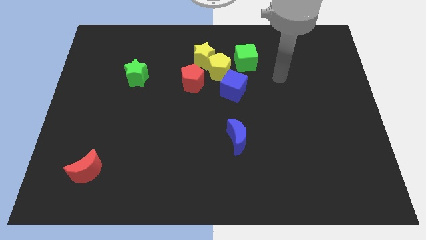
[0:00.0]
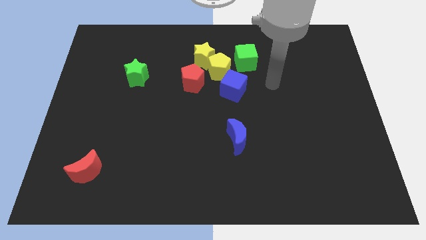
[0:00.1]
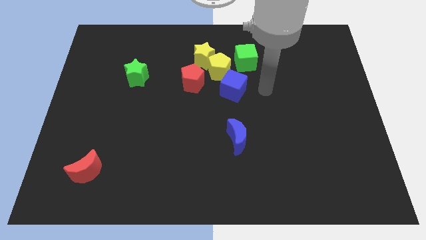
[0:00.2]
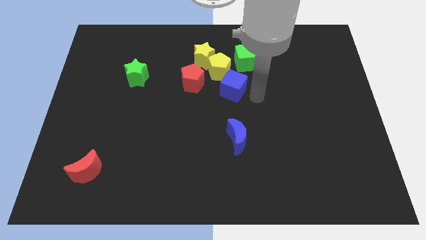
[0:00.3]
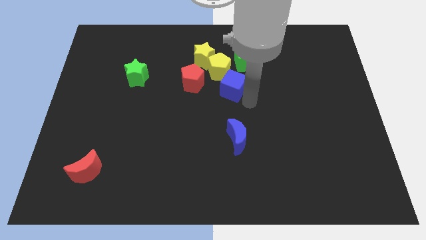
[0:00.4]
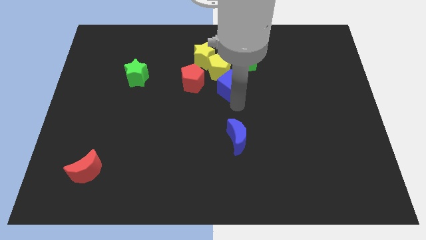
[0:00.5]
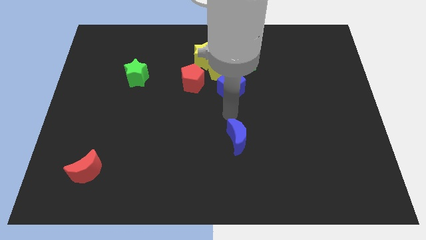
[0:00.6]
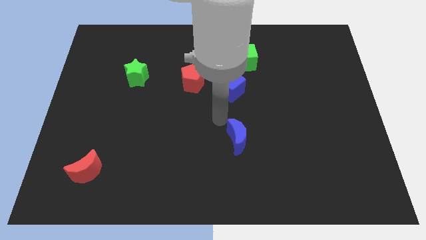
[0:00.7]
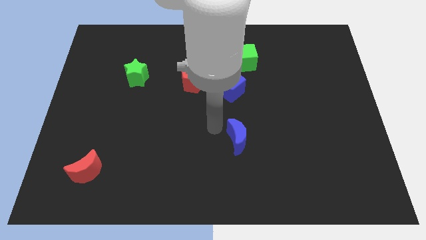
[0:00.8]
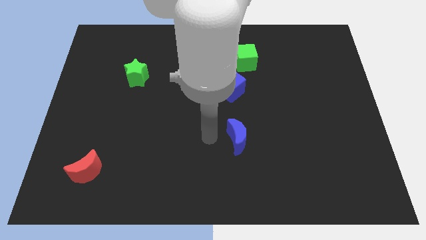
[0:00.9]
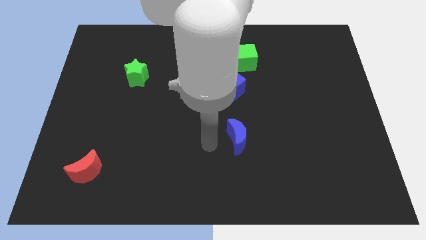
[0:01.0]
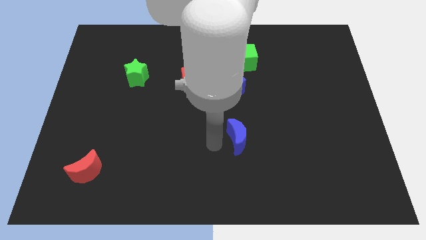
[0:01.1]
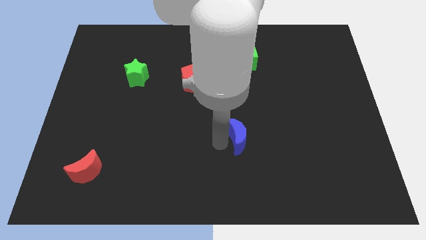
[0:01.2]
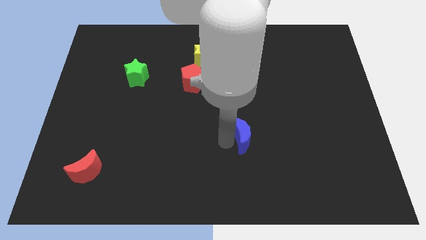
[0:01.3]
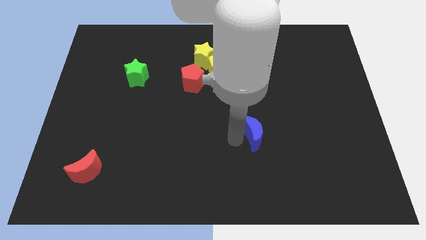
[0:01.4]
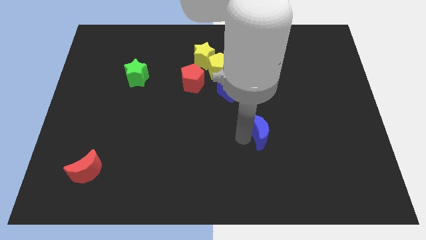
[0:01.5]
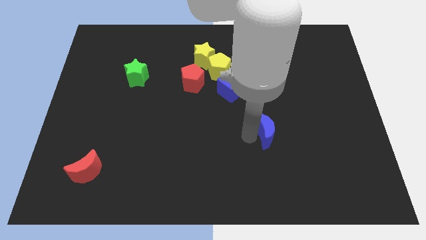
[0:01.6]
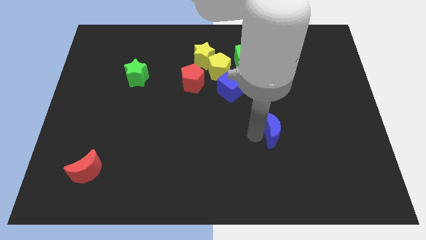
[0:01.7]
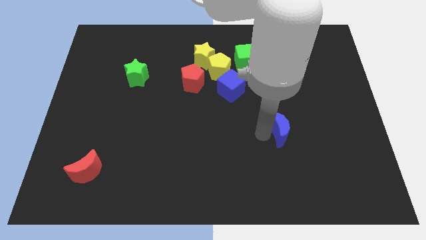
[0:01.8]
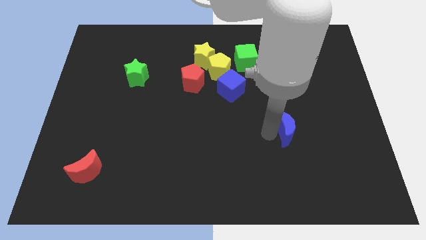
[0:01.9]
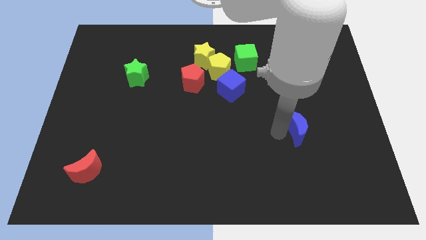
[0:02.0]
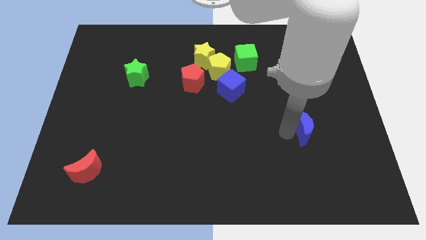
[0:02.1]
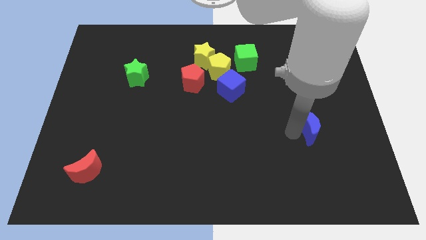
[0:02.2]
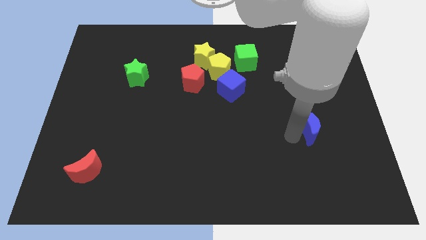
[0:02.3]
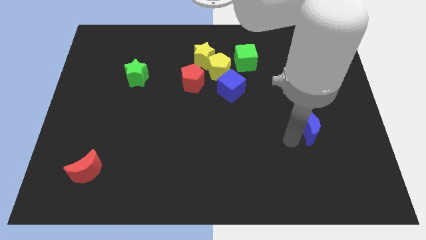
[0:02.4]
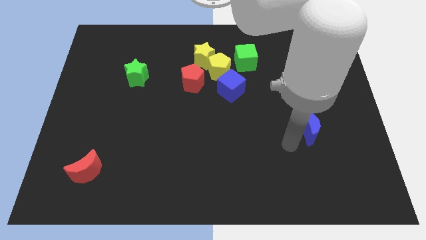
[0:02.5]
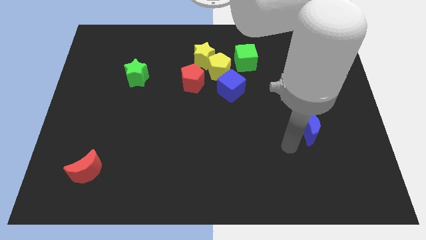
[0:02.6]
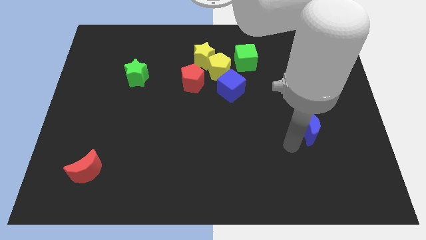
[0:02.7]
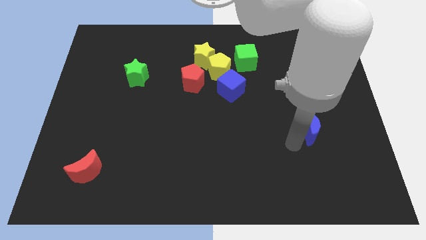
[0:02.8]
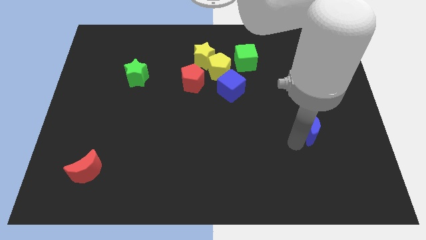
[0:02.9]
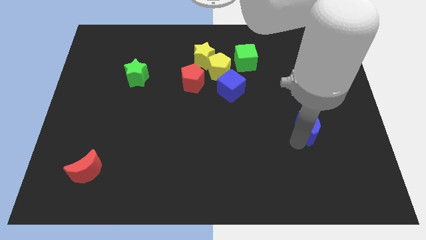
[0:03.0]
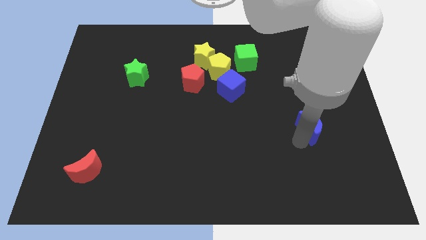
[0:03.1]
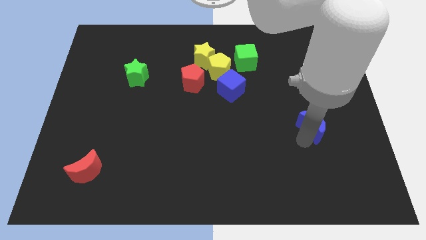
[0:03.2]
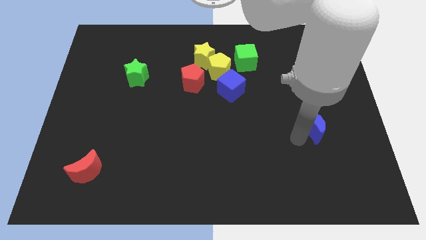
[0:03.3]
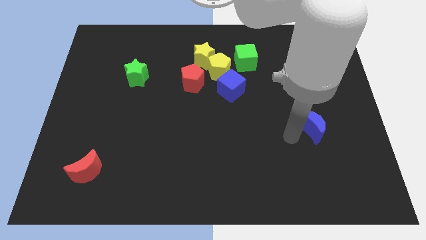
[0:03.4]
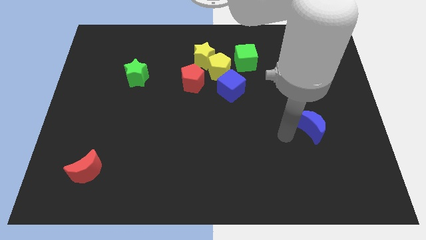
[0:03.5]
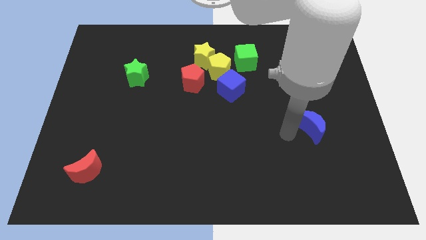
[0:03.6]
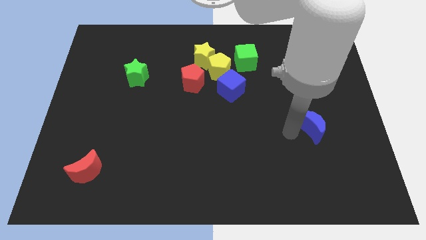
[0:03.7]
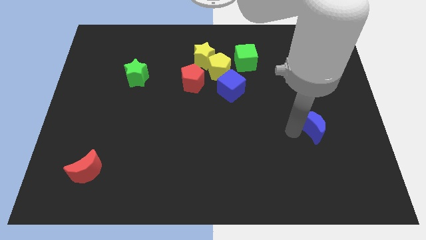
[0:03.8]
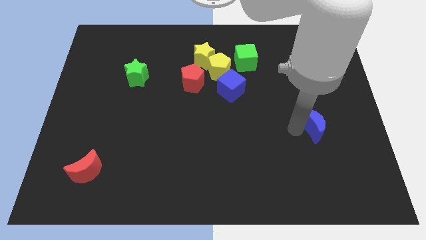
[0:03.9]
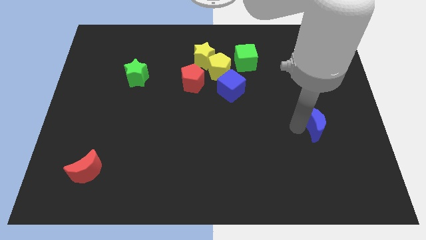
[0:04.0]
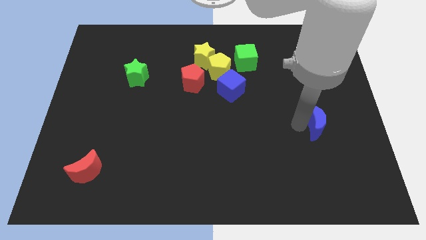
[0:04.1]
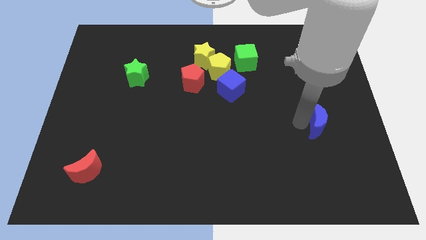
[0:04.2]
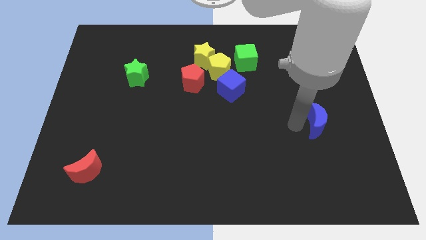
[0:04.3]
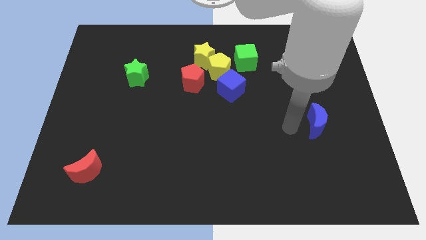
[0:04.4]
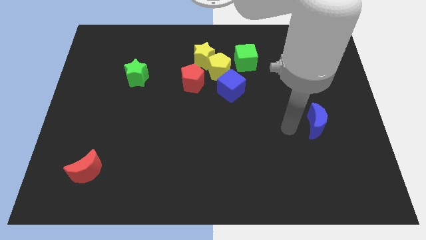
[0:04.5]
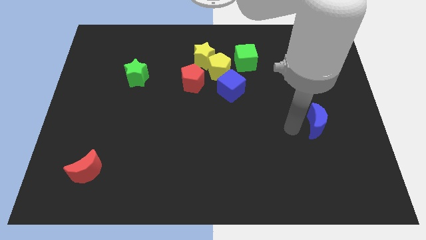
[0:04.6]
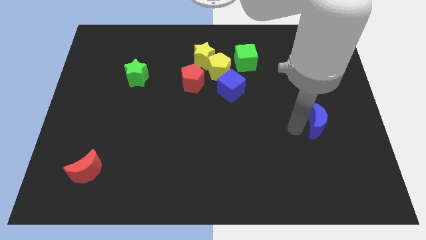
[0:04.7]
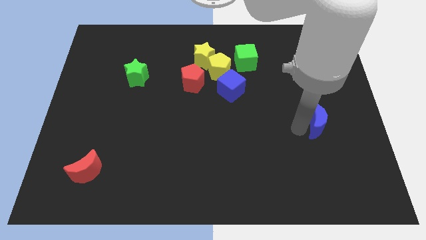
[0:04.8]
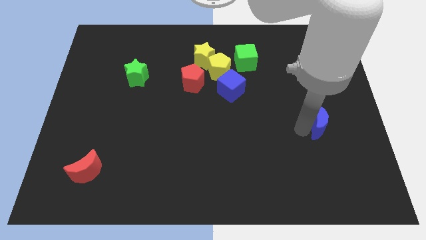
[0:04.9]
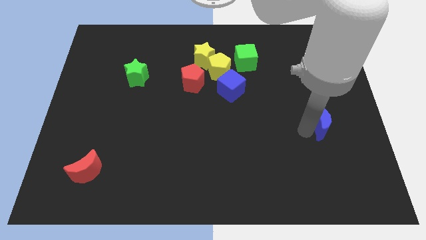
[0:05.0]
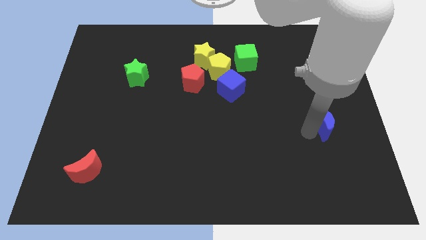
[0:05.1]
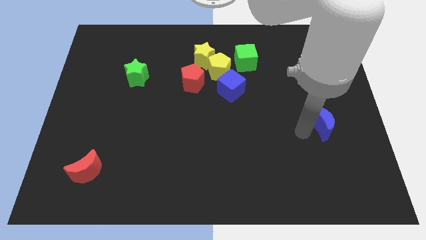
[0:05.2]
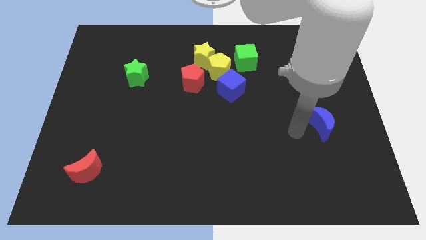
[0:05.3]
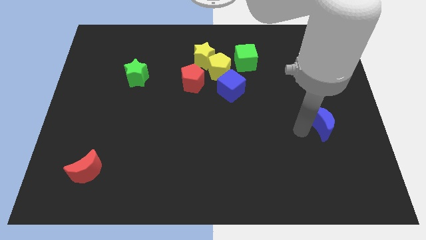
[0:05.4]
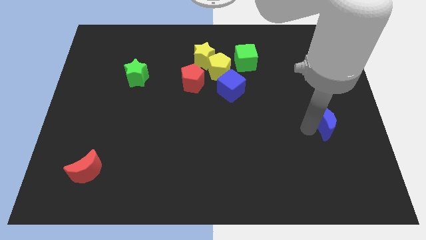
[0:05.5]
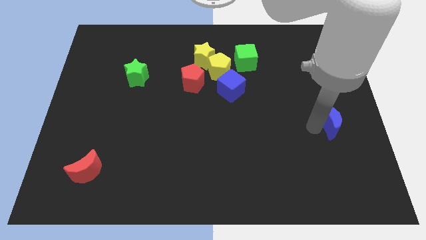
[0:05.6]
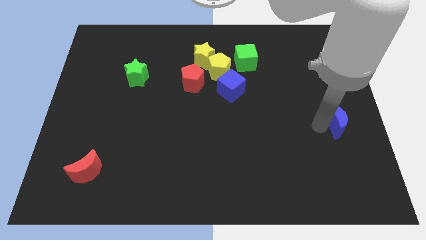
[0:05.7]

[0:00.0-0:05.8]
put the blue moon to the right side of the board

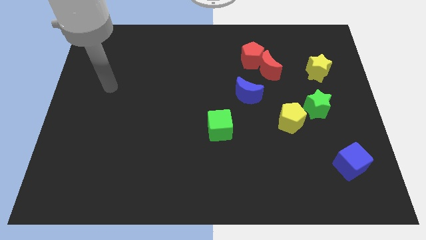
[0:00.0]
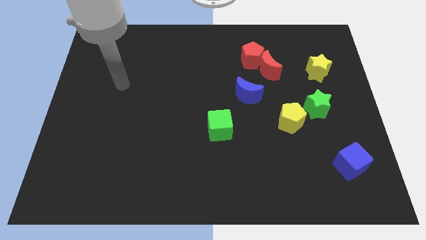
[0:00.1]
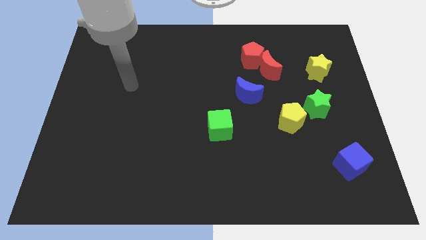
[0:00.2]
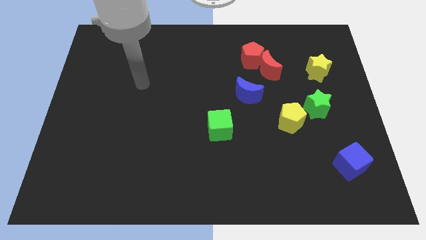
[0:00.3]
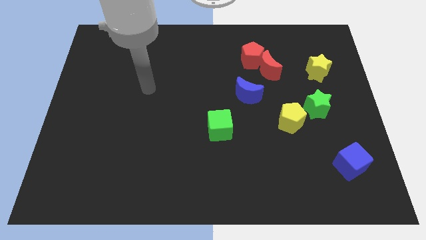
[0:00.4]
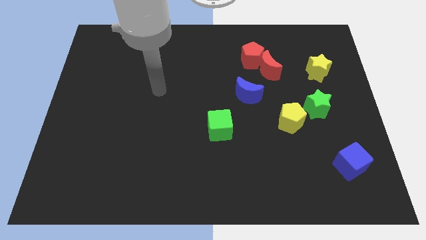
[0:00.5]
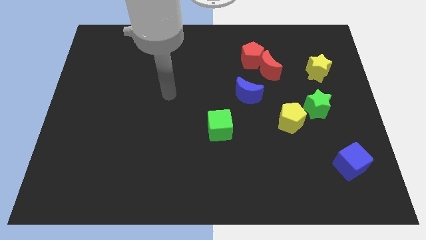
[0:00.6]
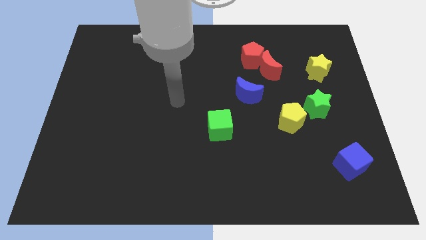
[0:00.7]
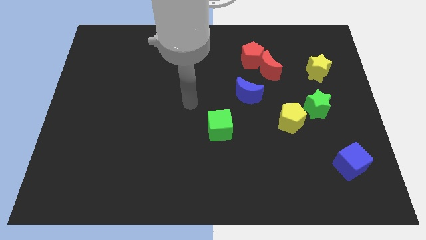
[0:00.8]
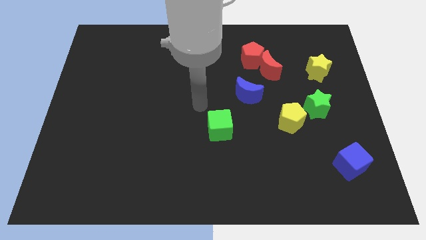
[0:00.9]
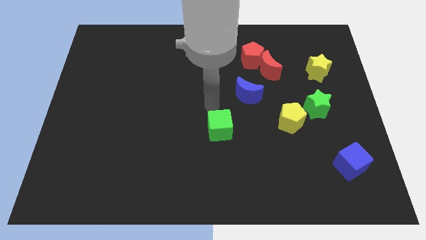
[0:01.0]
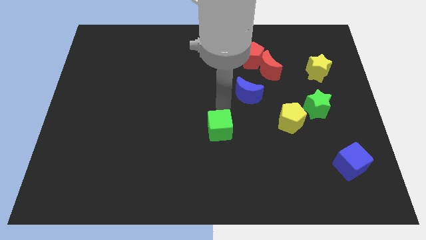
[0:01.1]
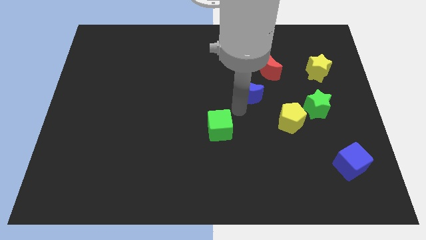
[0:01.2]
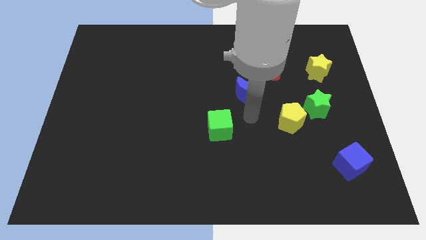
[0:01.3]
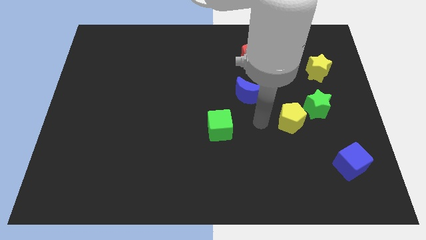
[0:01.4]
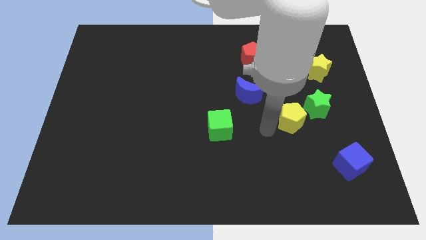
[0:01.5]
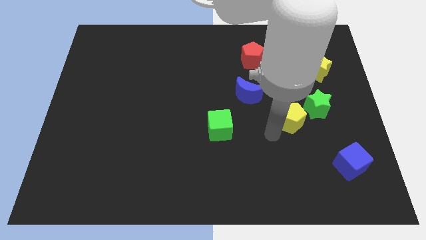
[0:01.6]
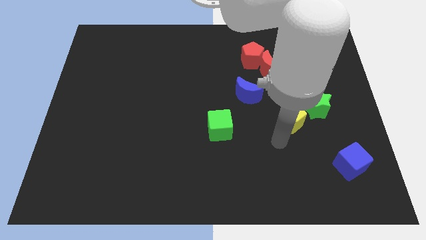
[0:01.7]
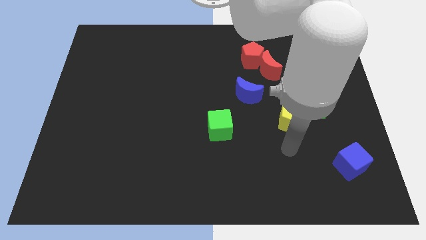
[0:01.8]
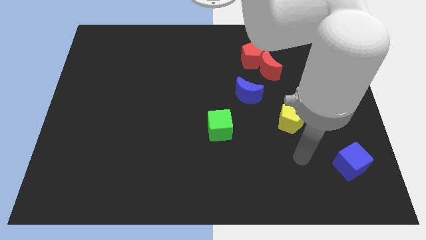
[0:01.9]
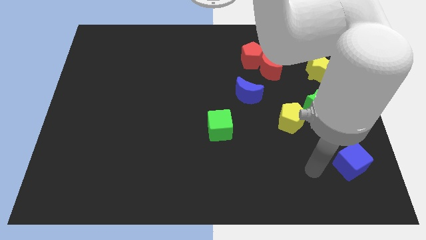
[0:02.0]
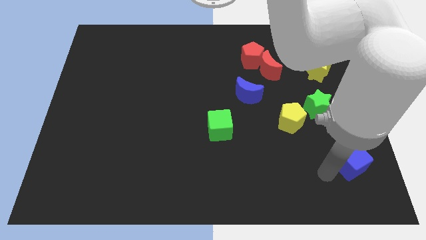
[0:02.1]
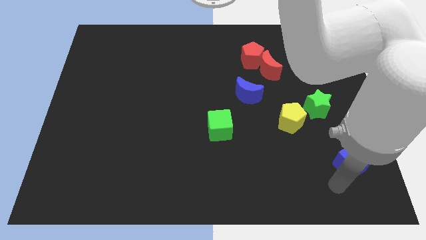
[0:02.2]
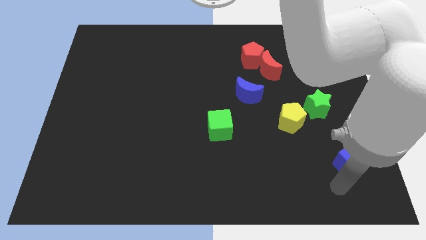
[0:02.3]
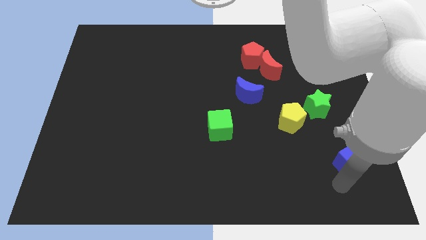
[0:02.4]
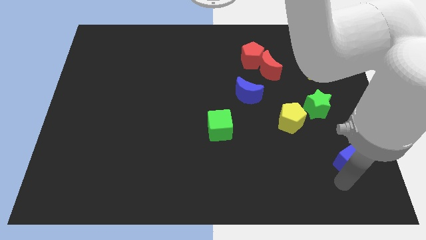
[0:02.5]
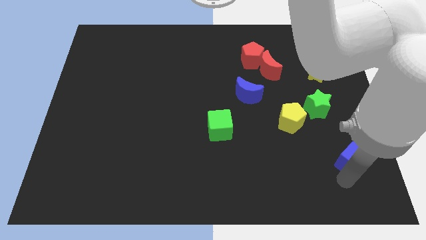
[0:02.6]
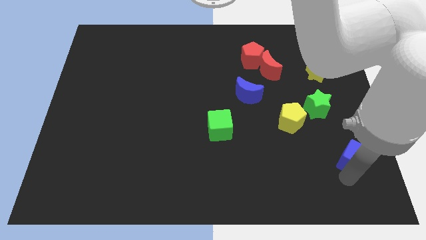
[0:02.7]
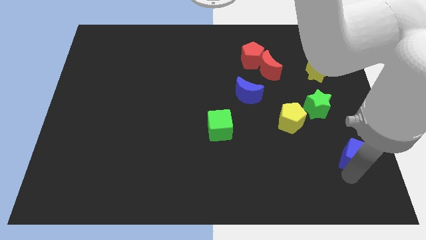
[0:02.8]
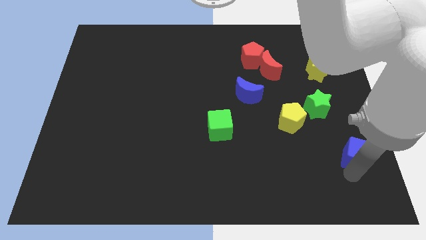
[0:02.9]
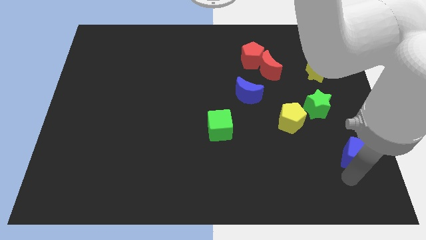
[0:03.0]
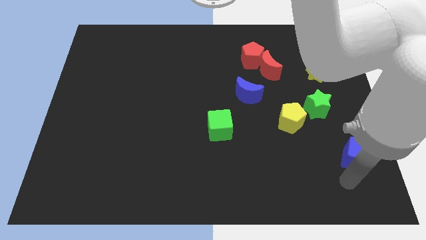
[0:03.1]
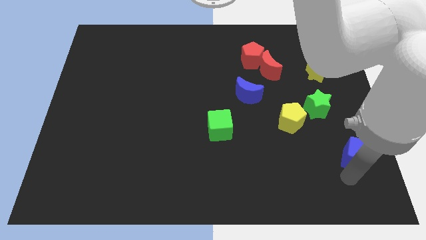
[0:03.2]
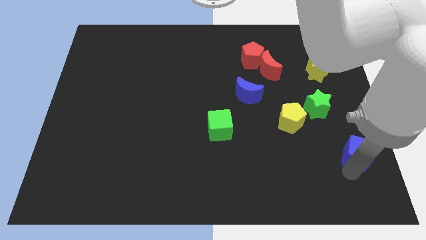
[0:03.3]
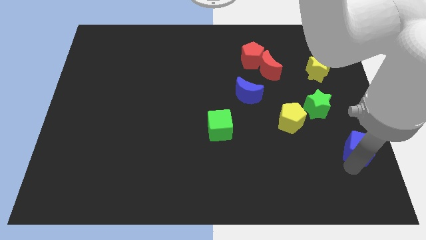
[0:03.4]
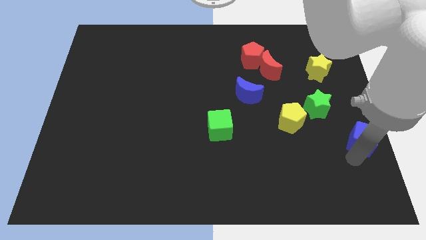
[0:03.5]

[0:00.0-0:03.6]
move the blue cube to the right side
